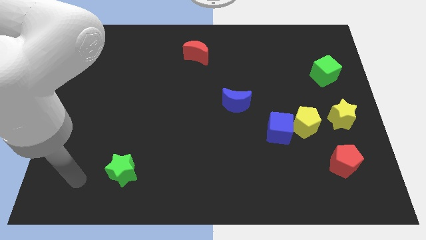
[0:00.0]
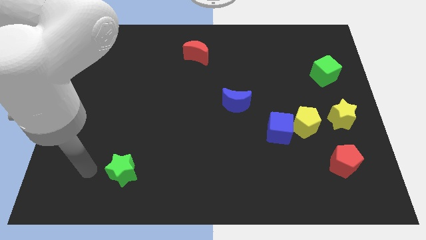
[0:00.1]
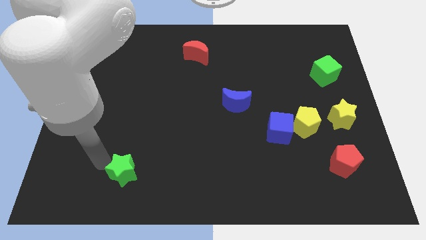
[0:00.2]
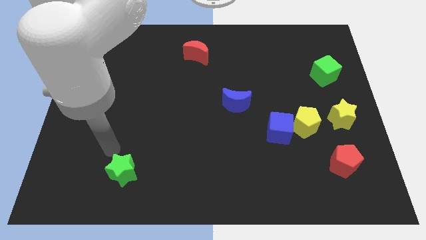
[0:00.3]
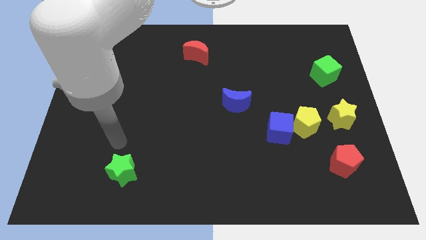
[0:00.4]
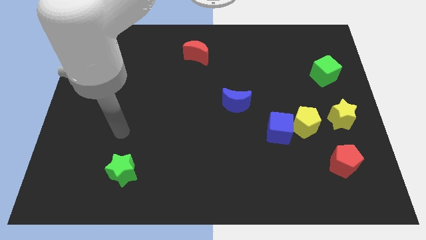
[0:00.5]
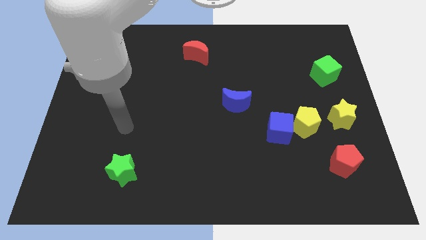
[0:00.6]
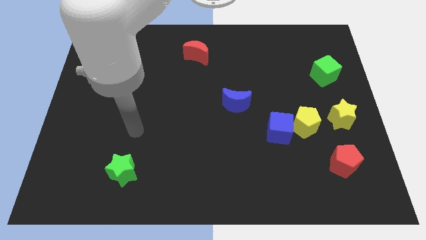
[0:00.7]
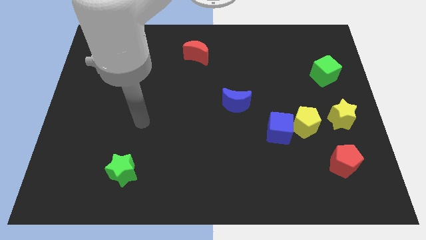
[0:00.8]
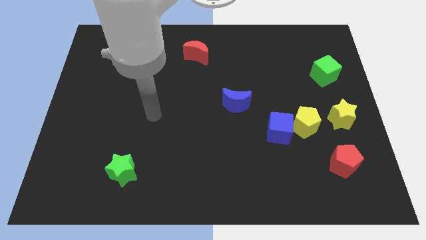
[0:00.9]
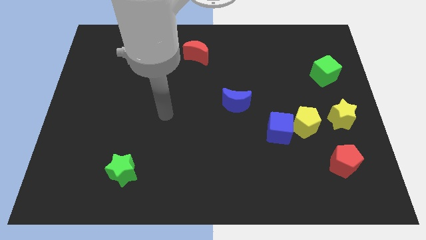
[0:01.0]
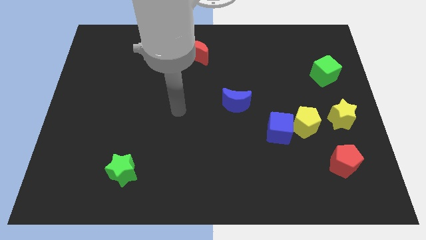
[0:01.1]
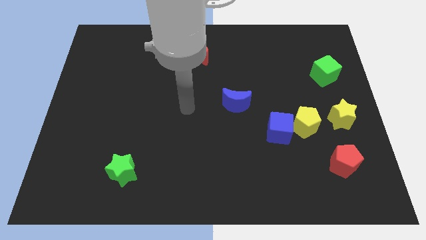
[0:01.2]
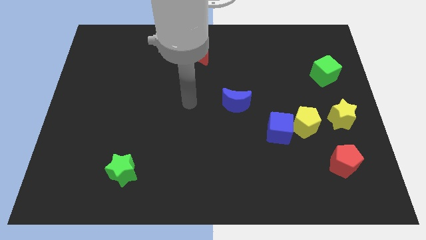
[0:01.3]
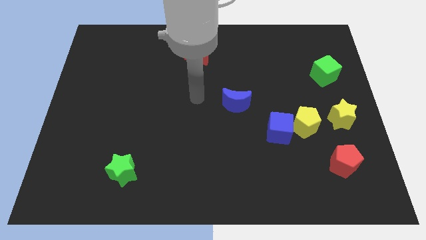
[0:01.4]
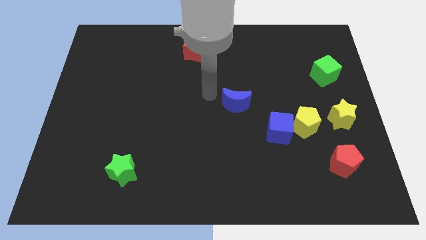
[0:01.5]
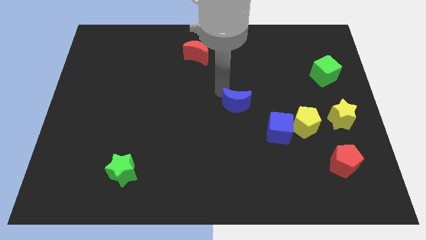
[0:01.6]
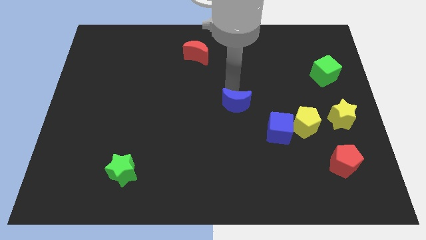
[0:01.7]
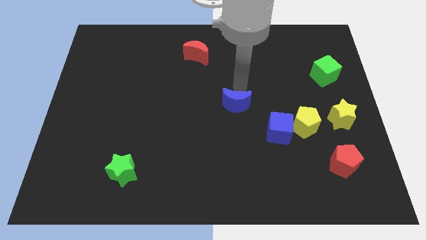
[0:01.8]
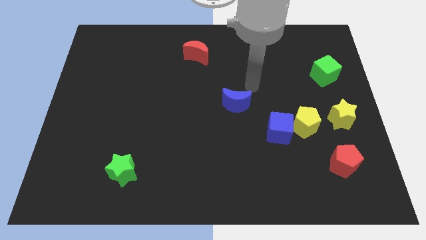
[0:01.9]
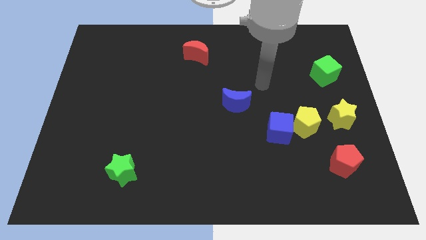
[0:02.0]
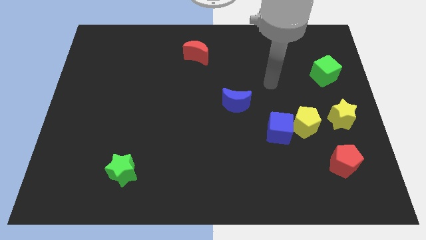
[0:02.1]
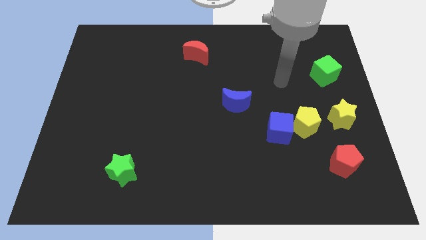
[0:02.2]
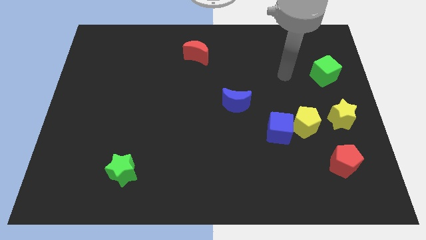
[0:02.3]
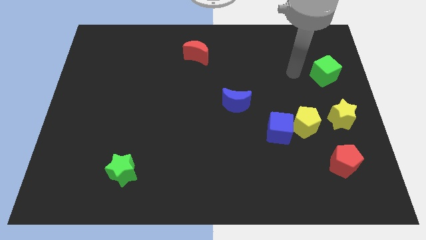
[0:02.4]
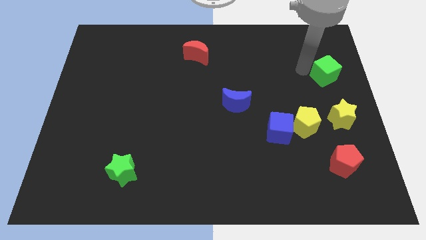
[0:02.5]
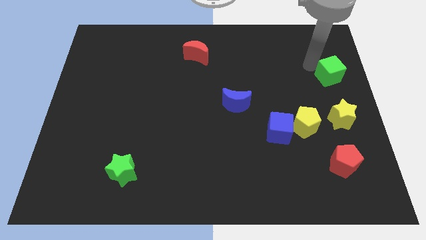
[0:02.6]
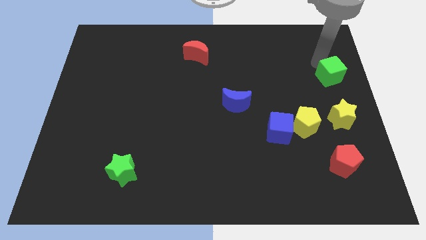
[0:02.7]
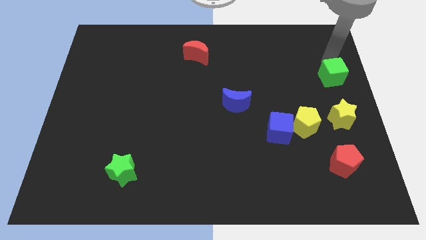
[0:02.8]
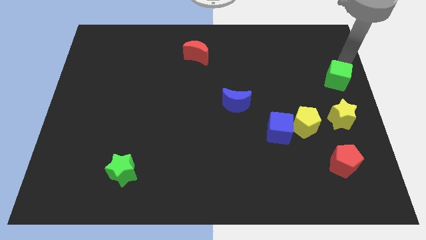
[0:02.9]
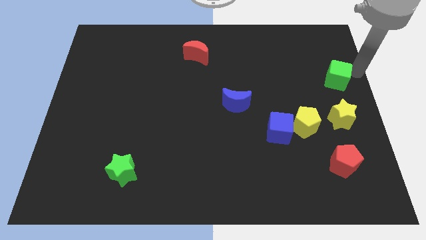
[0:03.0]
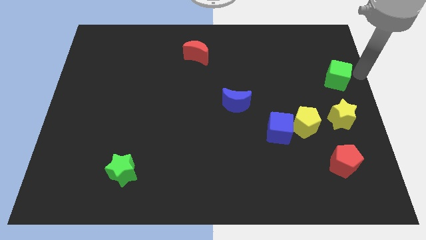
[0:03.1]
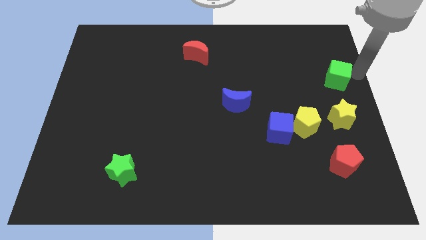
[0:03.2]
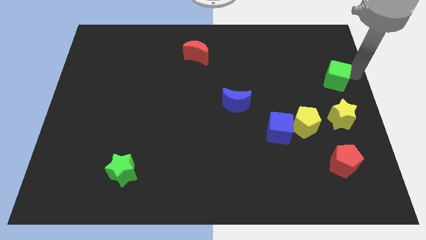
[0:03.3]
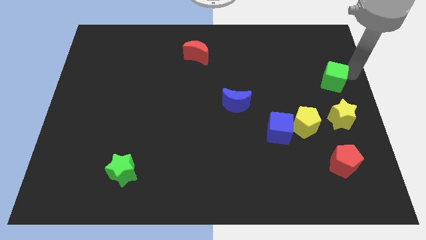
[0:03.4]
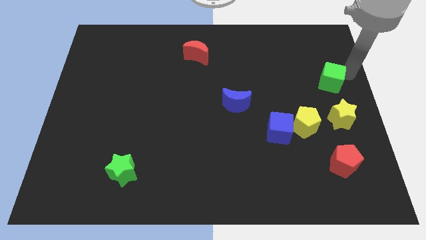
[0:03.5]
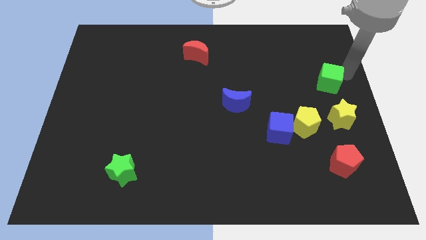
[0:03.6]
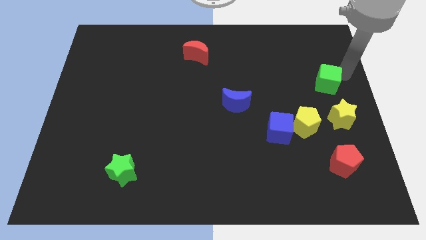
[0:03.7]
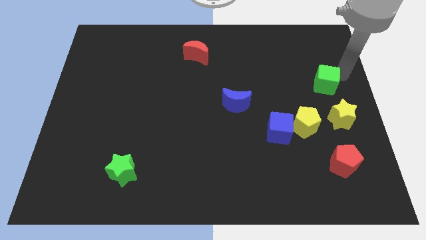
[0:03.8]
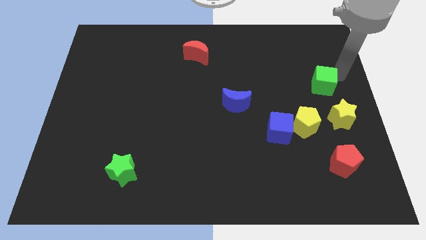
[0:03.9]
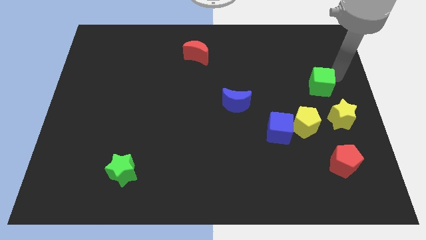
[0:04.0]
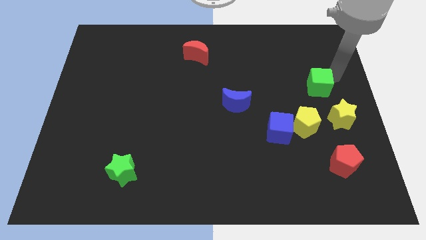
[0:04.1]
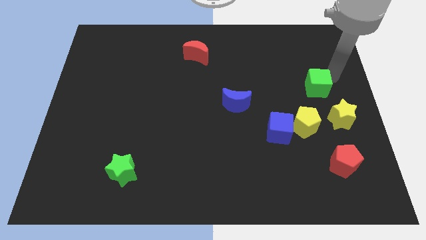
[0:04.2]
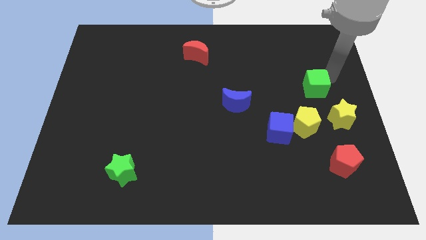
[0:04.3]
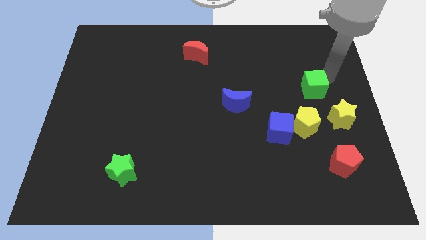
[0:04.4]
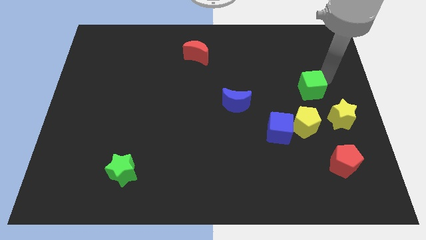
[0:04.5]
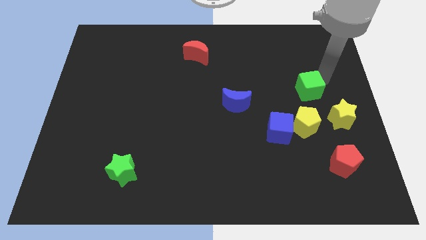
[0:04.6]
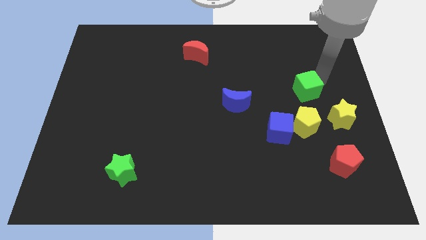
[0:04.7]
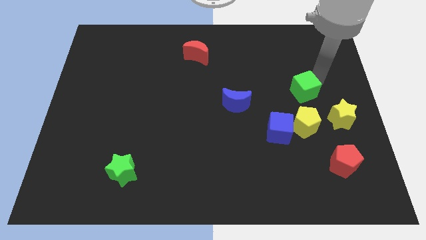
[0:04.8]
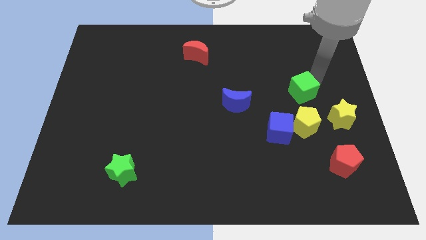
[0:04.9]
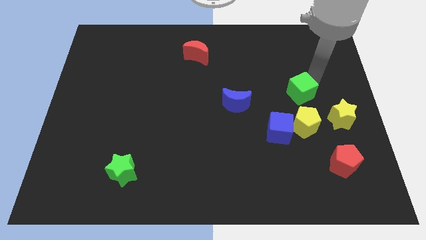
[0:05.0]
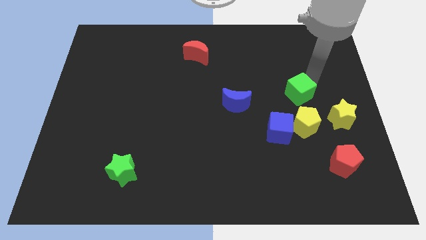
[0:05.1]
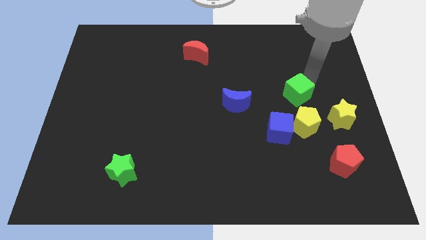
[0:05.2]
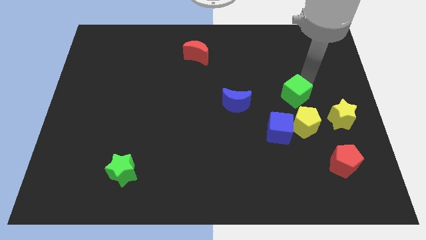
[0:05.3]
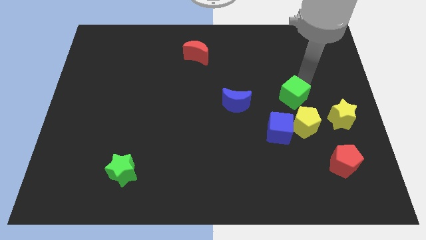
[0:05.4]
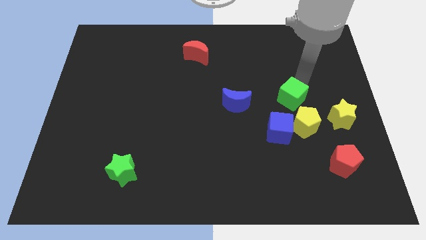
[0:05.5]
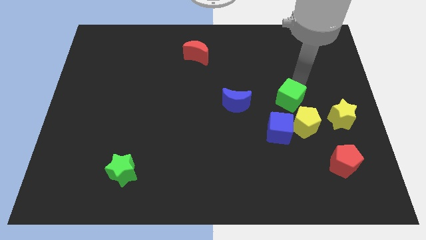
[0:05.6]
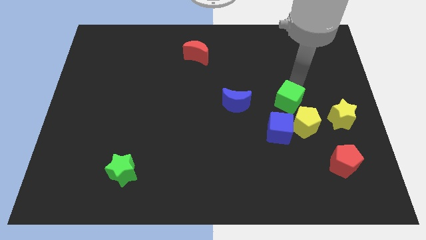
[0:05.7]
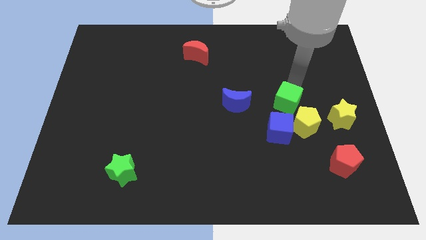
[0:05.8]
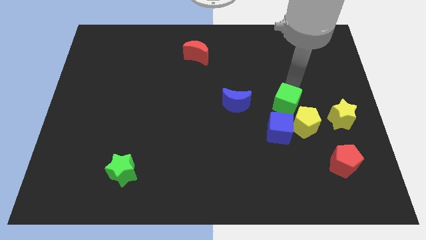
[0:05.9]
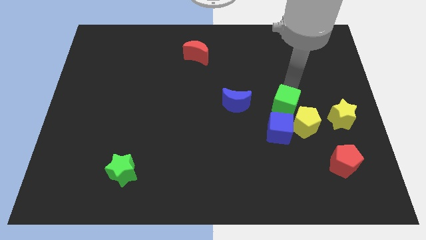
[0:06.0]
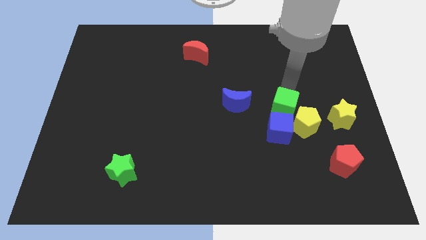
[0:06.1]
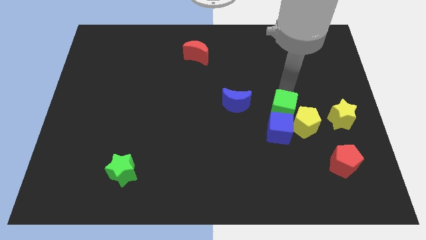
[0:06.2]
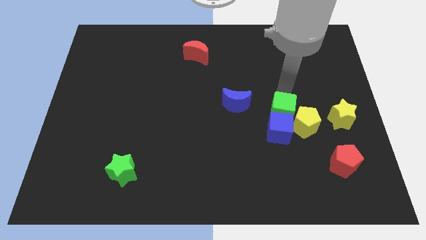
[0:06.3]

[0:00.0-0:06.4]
push the green cube towards the blue cube
